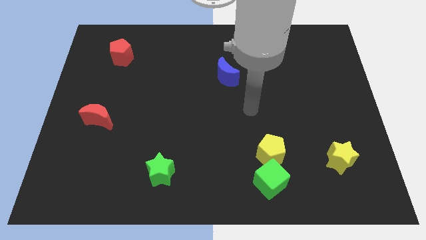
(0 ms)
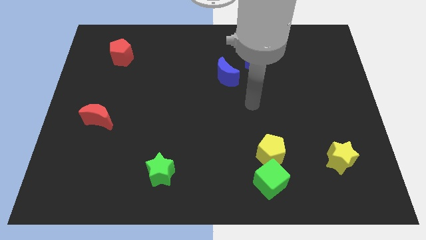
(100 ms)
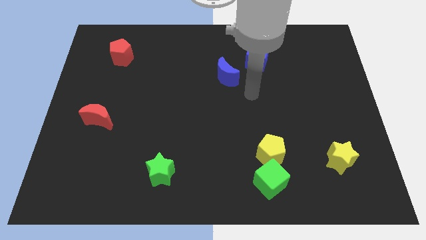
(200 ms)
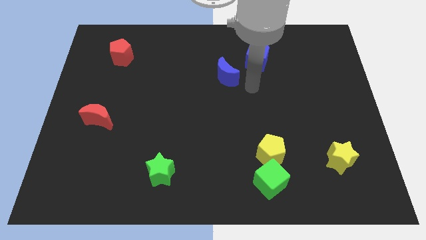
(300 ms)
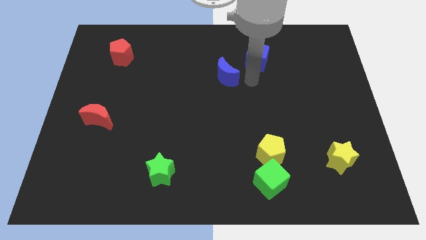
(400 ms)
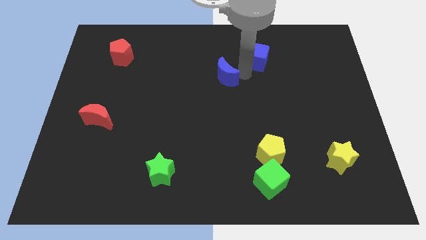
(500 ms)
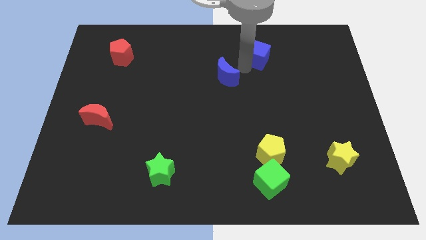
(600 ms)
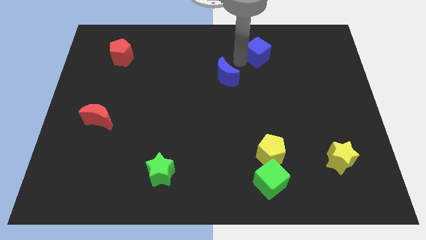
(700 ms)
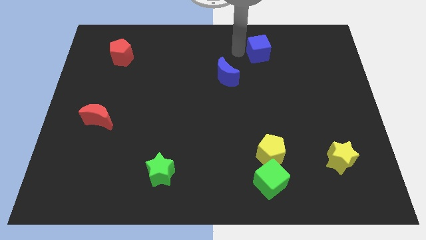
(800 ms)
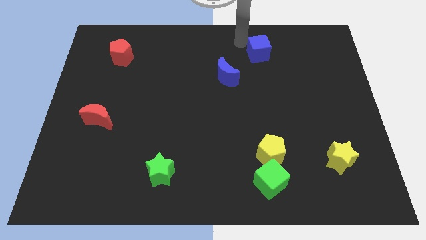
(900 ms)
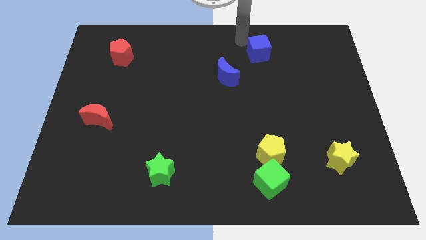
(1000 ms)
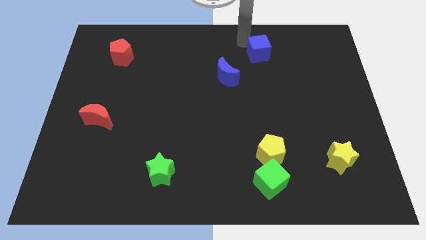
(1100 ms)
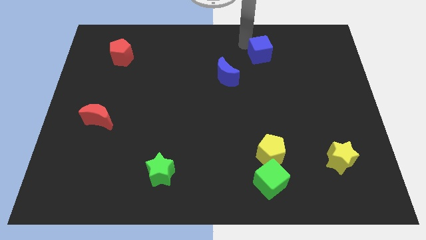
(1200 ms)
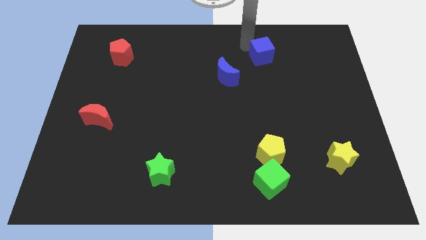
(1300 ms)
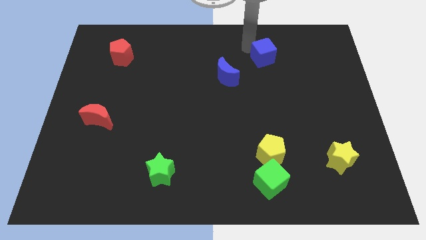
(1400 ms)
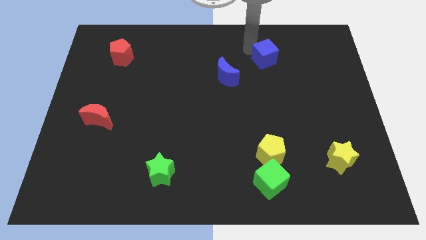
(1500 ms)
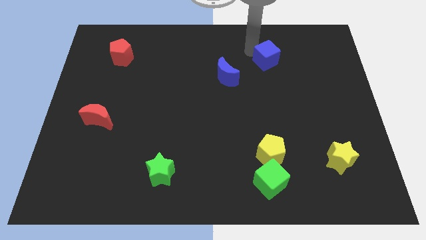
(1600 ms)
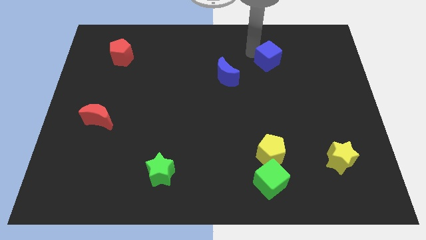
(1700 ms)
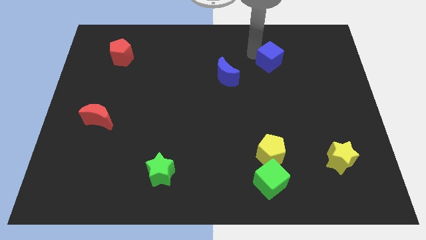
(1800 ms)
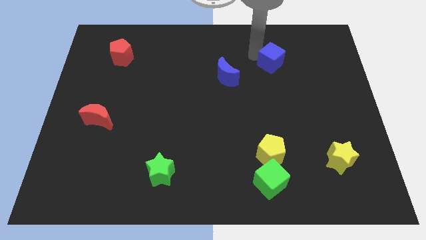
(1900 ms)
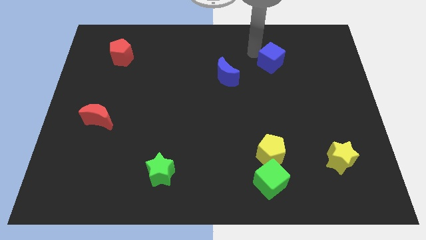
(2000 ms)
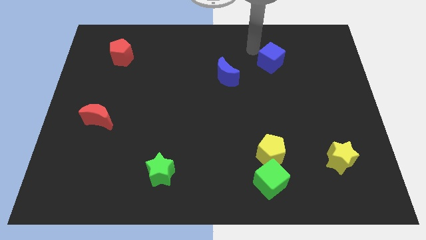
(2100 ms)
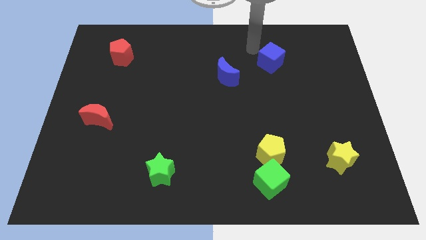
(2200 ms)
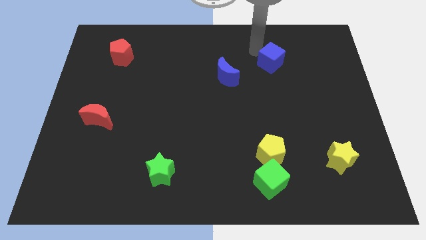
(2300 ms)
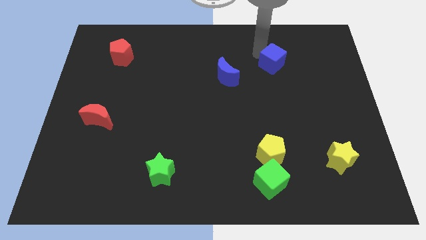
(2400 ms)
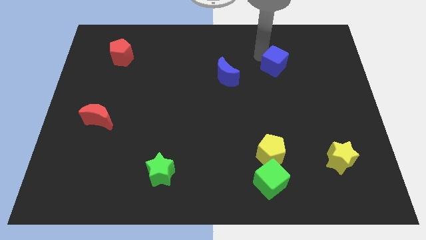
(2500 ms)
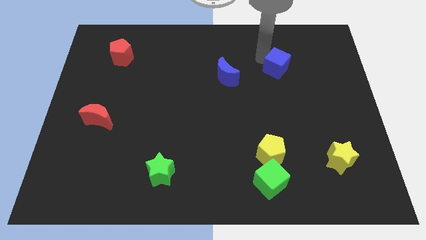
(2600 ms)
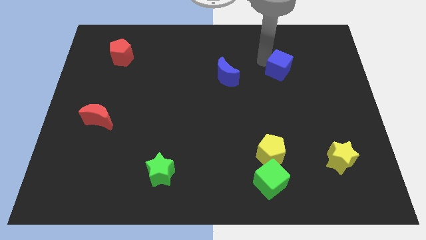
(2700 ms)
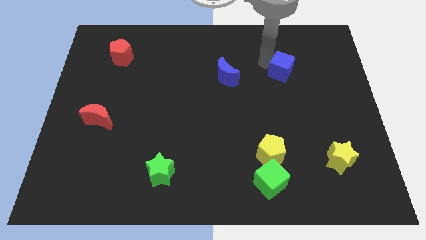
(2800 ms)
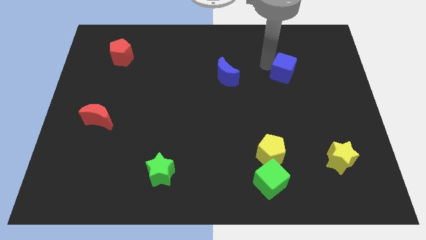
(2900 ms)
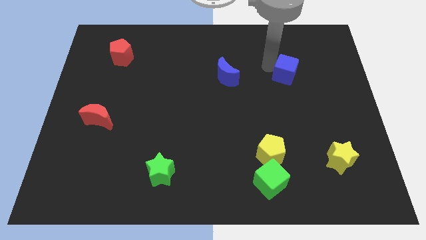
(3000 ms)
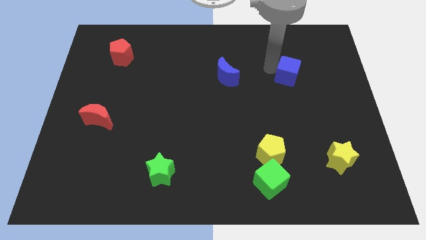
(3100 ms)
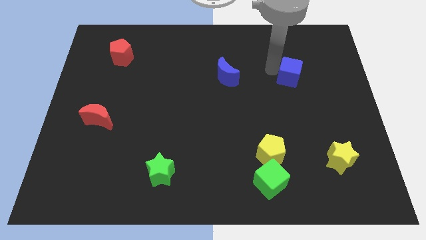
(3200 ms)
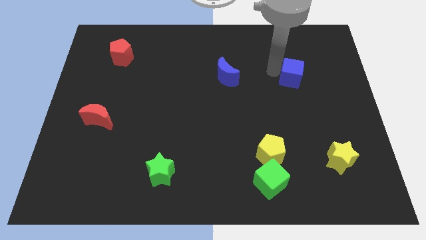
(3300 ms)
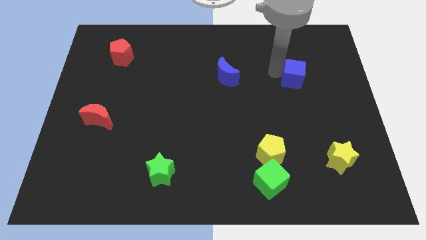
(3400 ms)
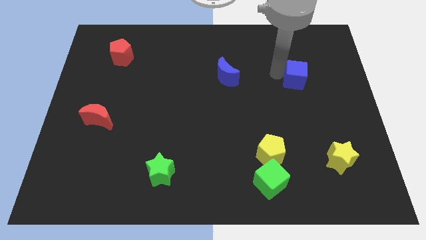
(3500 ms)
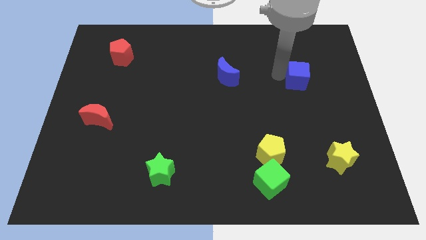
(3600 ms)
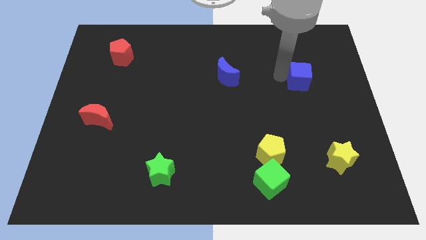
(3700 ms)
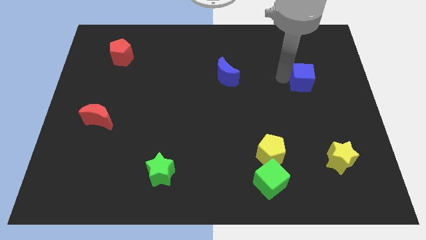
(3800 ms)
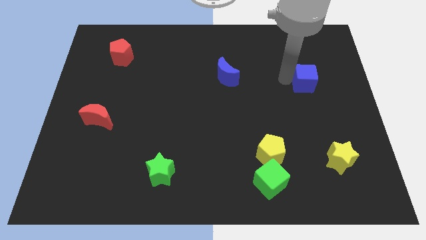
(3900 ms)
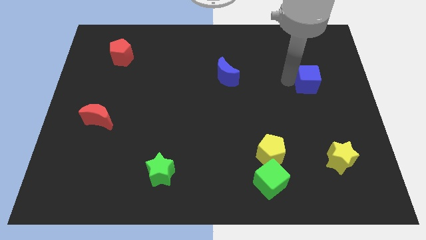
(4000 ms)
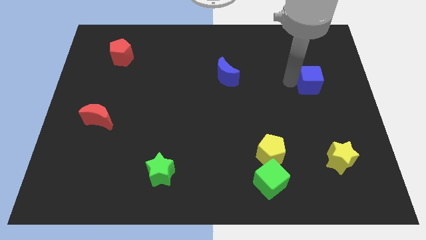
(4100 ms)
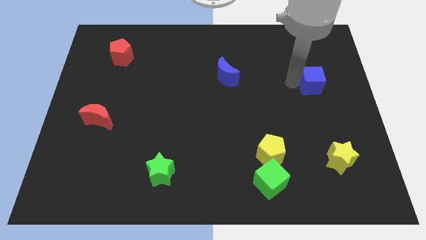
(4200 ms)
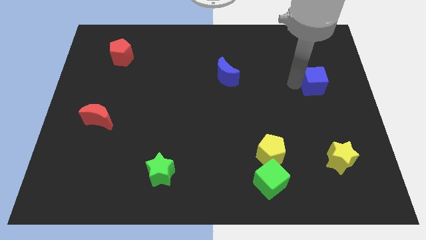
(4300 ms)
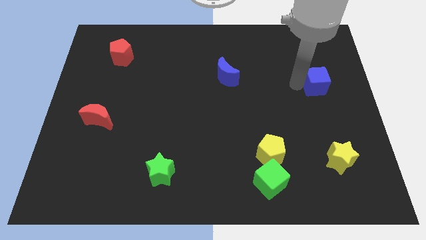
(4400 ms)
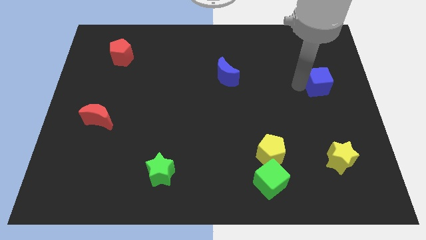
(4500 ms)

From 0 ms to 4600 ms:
move the blue cube to the right side of the board

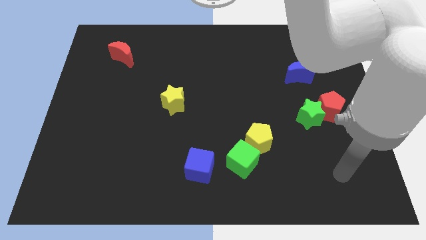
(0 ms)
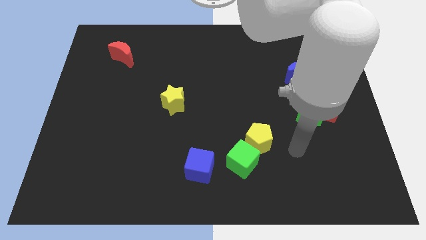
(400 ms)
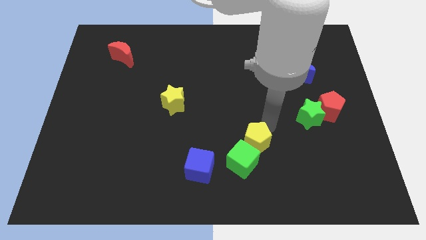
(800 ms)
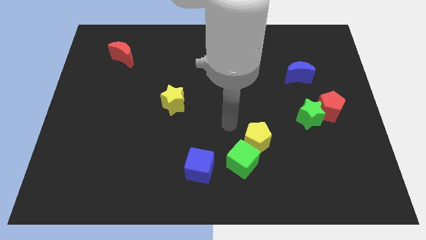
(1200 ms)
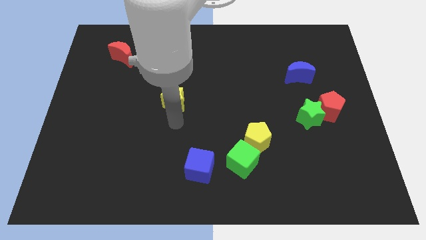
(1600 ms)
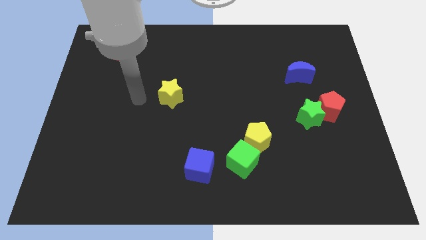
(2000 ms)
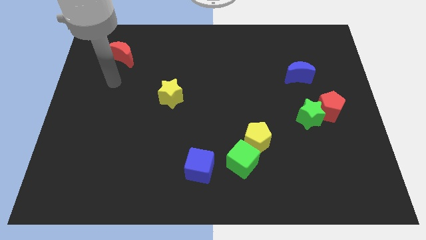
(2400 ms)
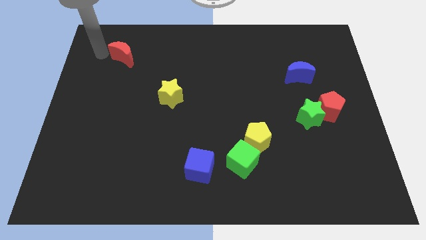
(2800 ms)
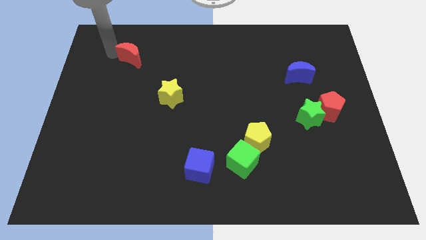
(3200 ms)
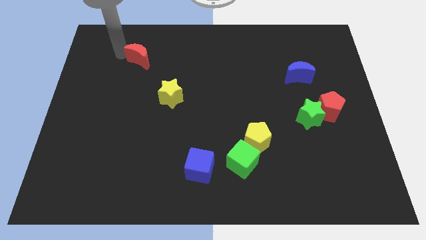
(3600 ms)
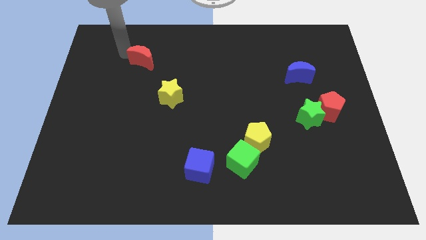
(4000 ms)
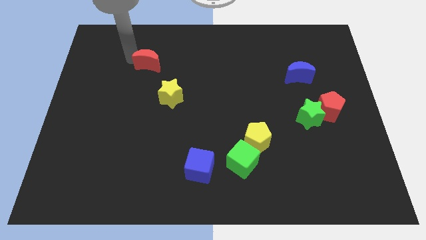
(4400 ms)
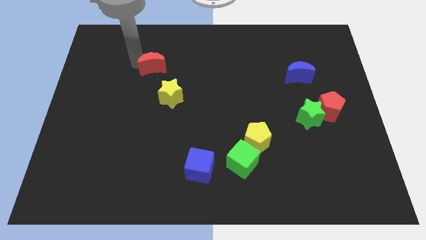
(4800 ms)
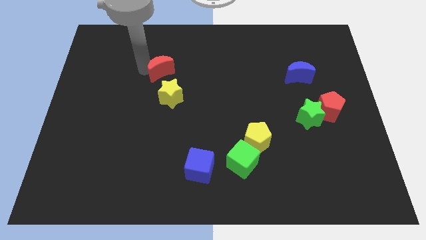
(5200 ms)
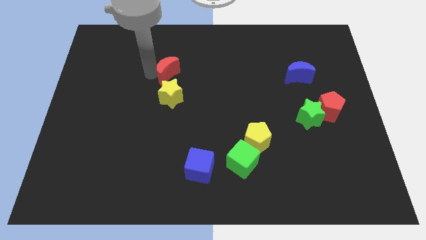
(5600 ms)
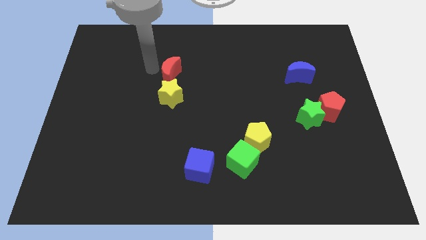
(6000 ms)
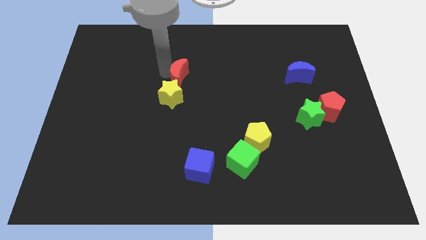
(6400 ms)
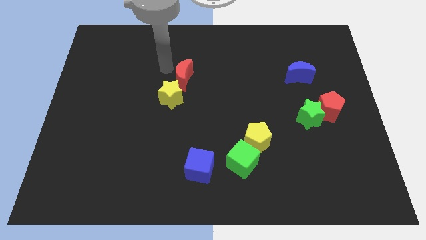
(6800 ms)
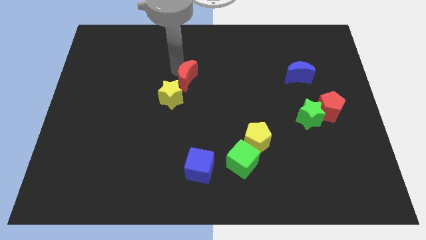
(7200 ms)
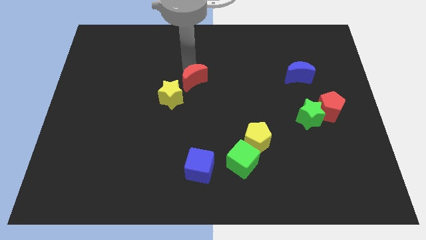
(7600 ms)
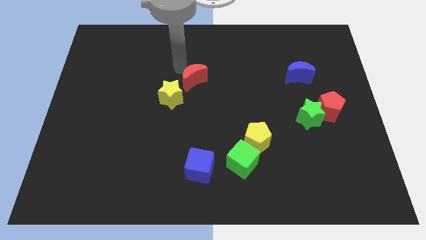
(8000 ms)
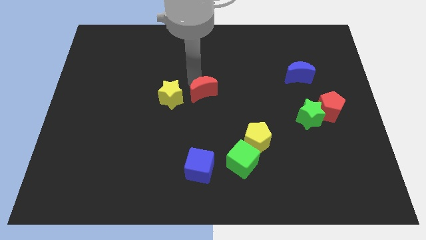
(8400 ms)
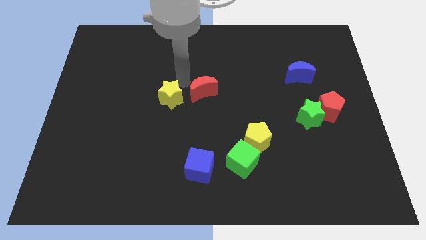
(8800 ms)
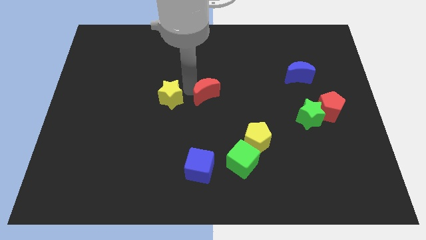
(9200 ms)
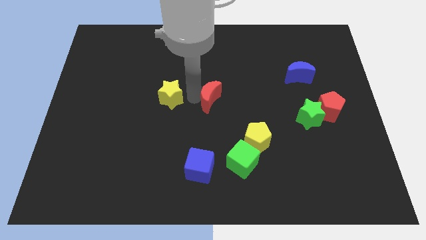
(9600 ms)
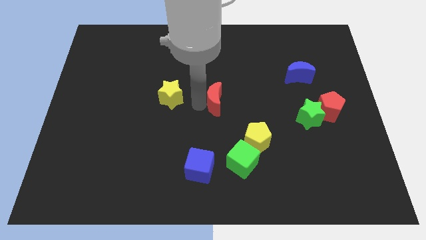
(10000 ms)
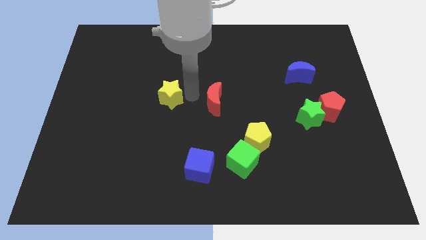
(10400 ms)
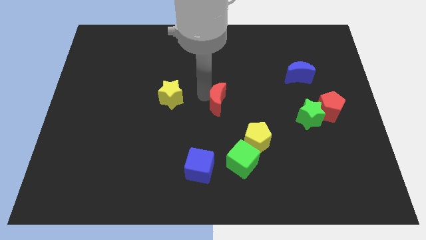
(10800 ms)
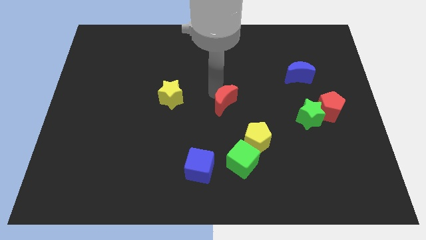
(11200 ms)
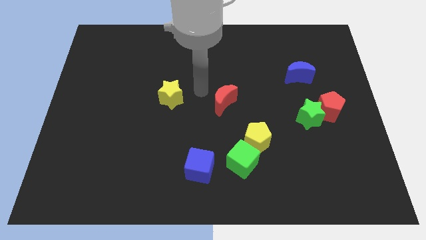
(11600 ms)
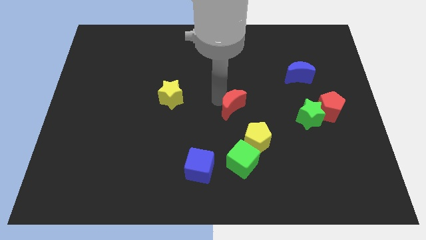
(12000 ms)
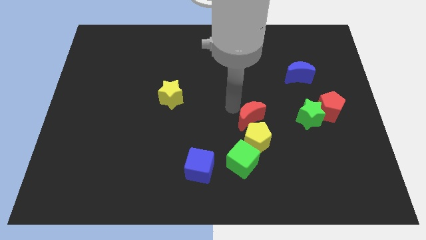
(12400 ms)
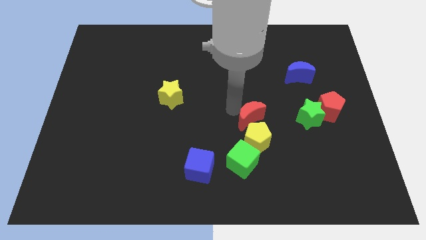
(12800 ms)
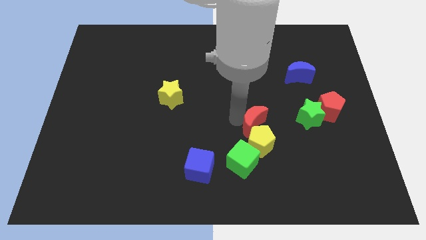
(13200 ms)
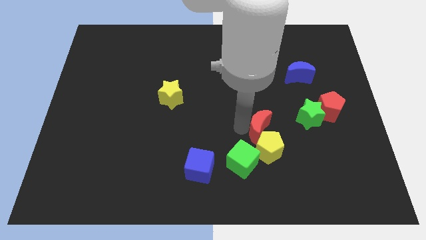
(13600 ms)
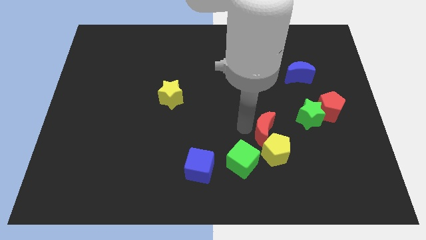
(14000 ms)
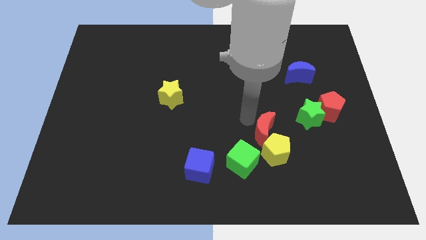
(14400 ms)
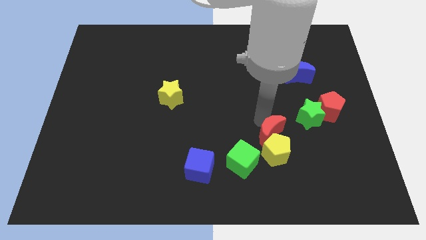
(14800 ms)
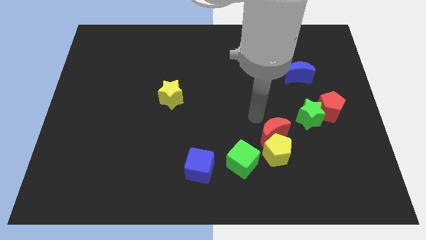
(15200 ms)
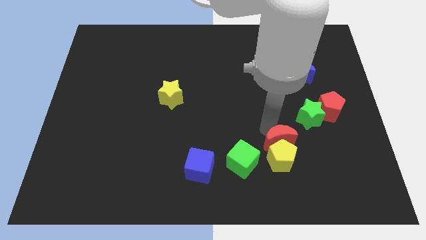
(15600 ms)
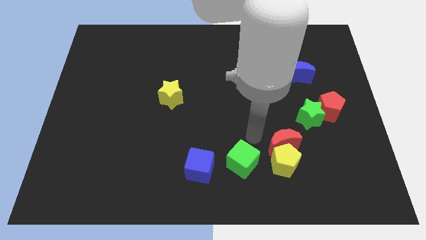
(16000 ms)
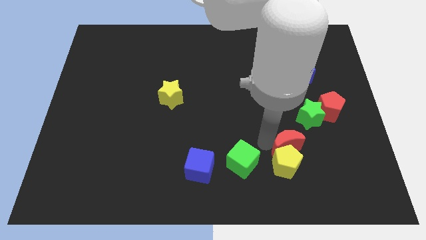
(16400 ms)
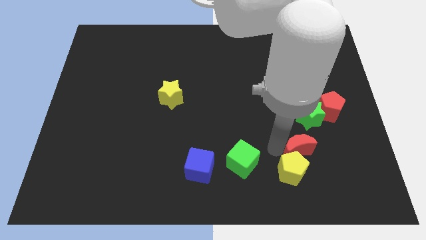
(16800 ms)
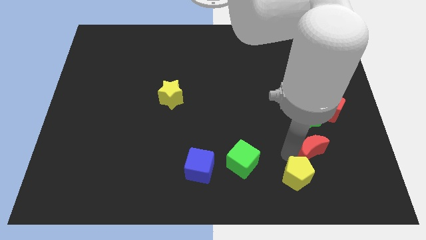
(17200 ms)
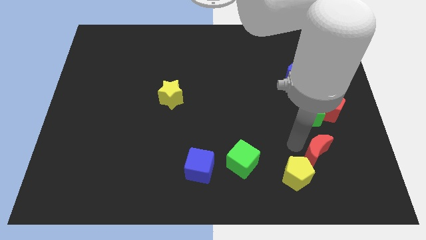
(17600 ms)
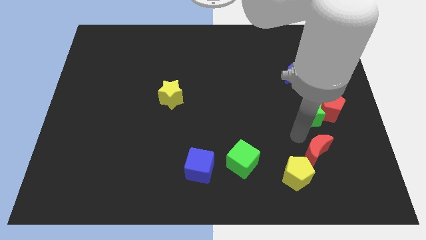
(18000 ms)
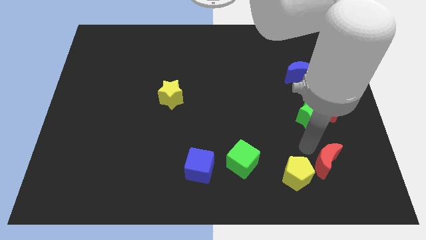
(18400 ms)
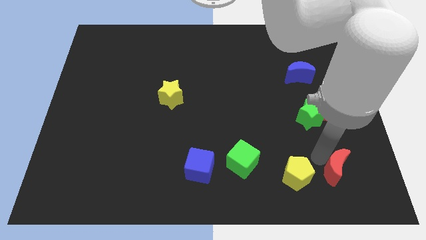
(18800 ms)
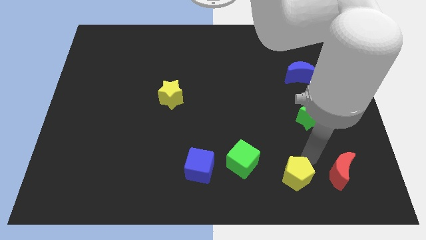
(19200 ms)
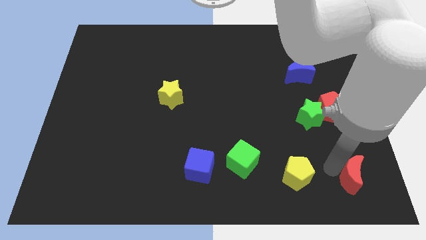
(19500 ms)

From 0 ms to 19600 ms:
move the red moon to the bottom right corner
